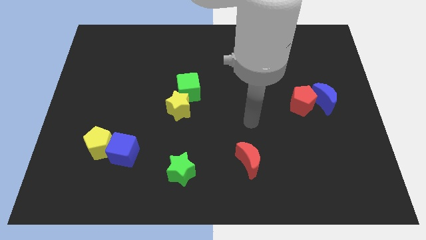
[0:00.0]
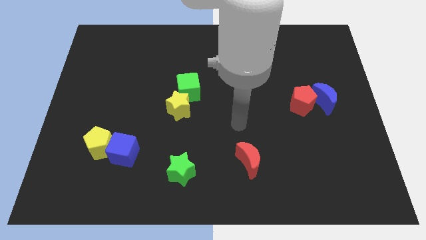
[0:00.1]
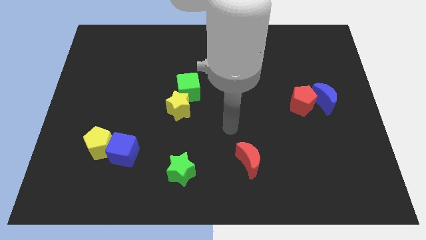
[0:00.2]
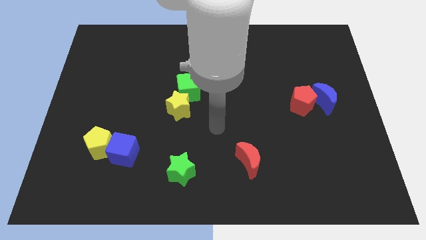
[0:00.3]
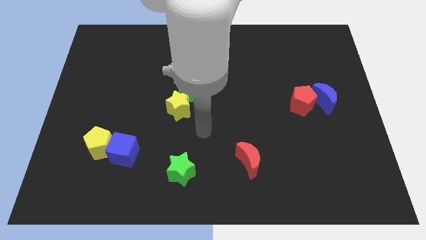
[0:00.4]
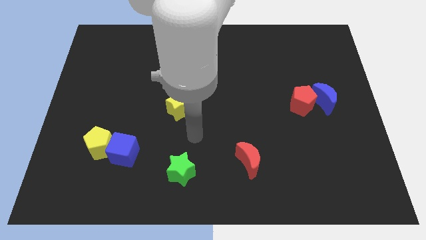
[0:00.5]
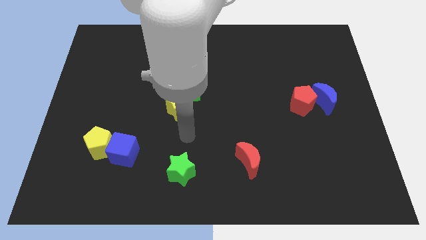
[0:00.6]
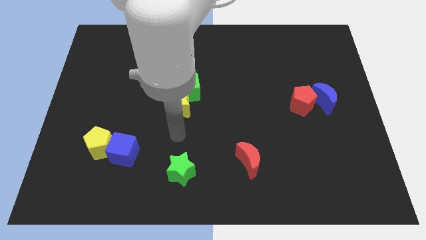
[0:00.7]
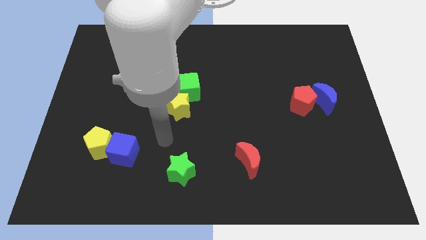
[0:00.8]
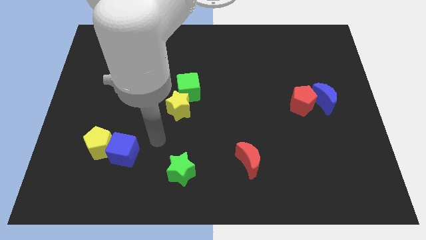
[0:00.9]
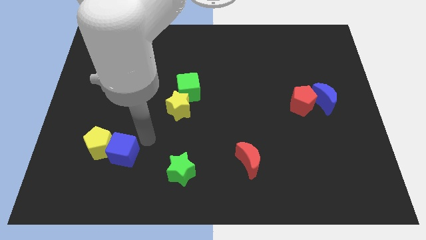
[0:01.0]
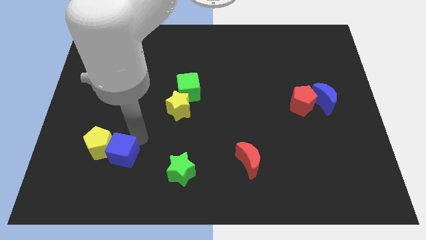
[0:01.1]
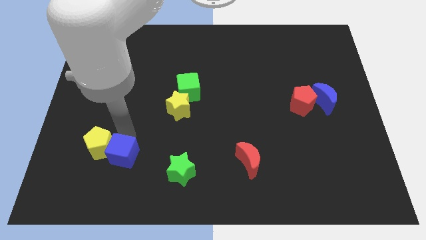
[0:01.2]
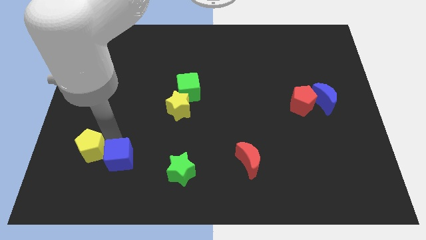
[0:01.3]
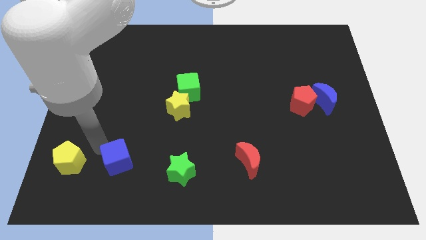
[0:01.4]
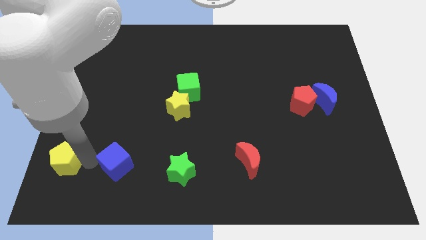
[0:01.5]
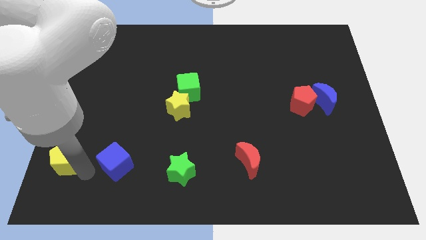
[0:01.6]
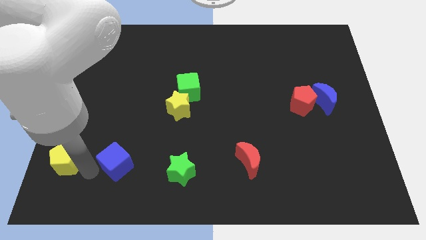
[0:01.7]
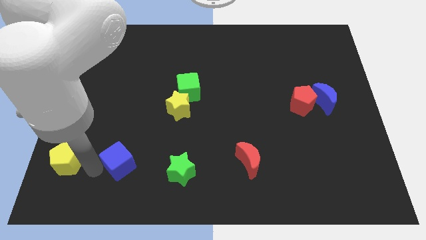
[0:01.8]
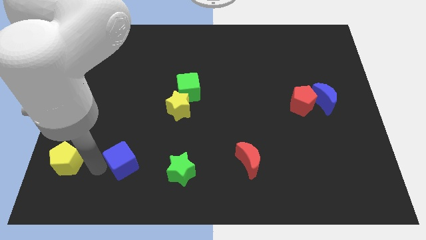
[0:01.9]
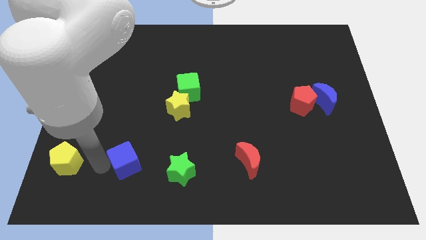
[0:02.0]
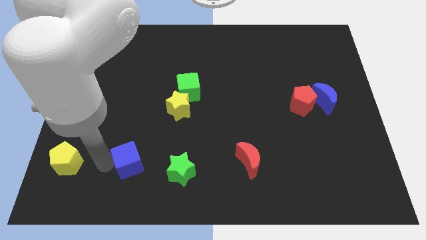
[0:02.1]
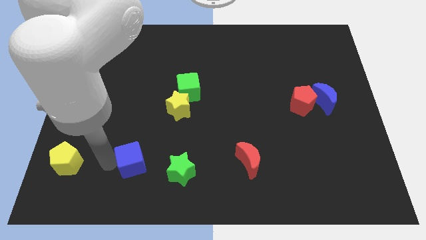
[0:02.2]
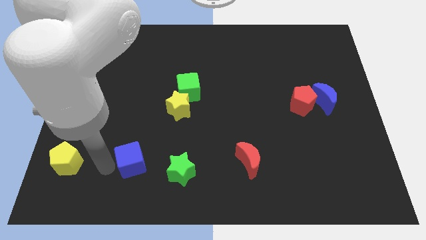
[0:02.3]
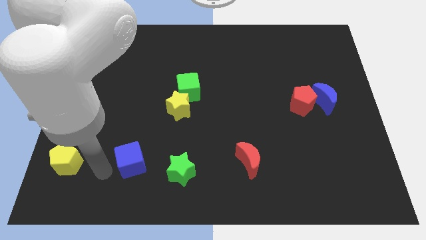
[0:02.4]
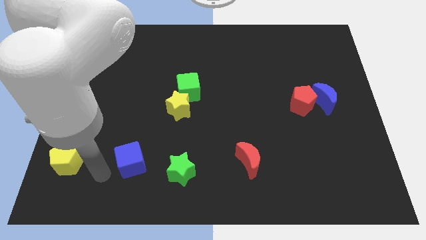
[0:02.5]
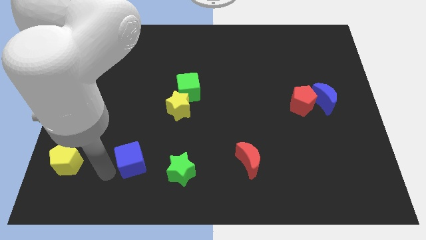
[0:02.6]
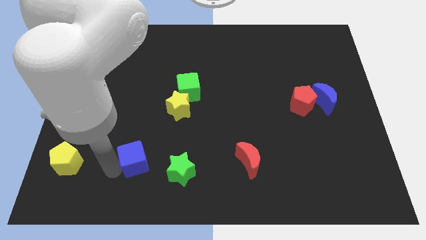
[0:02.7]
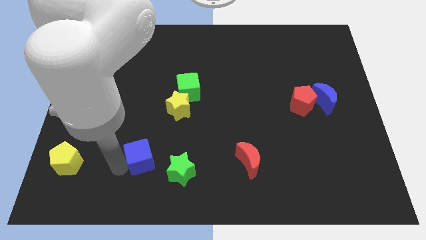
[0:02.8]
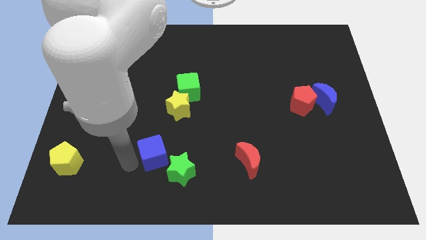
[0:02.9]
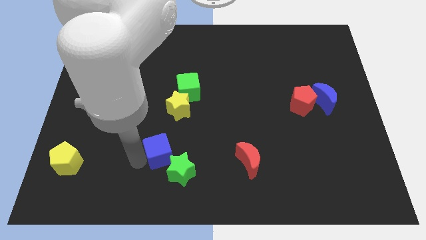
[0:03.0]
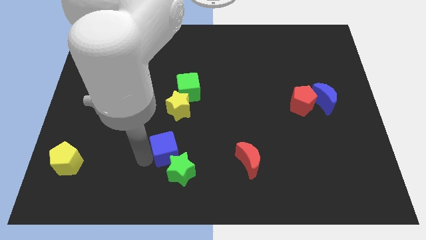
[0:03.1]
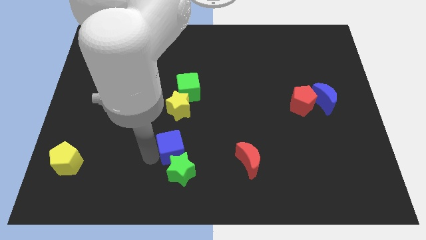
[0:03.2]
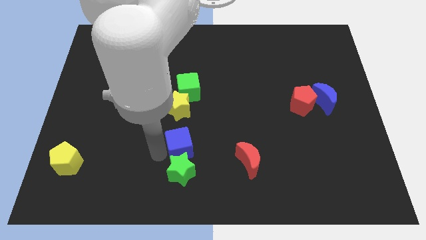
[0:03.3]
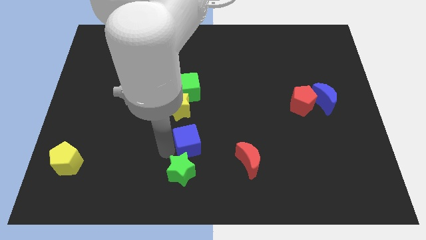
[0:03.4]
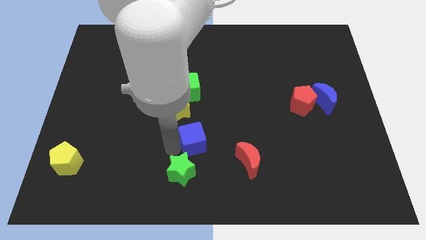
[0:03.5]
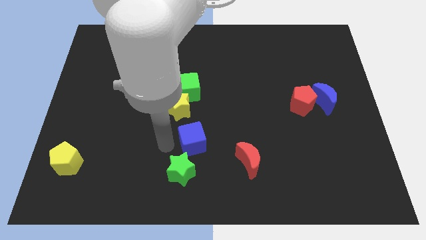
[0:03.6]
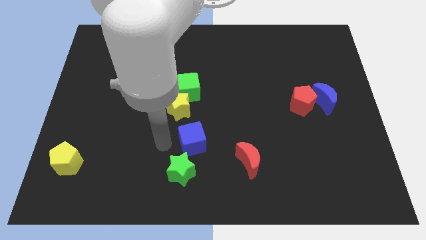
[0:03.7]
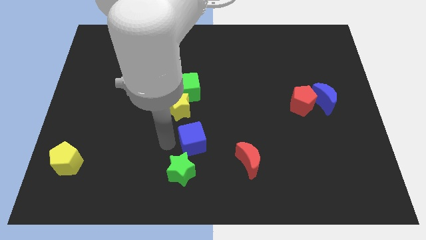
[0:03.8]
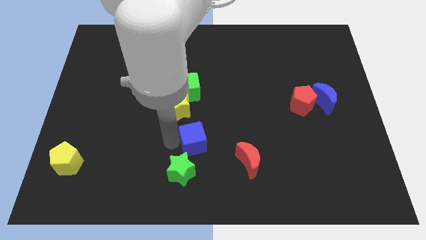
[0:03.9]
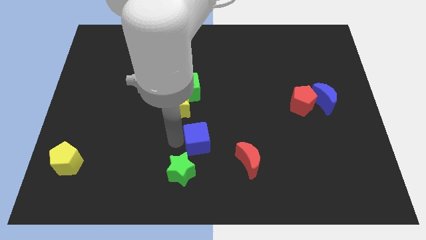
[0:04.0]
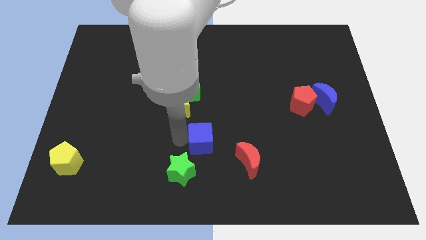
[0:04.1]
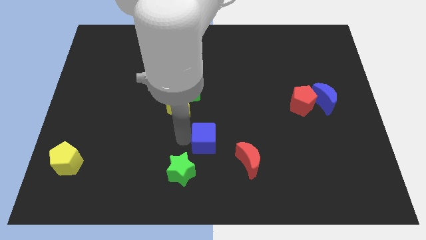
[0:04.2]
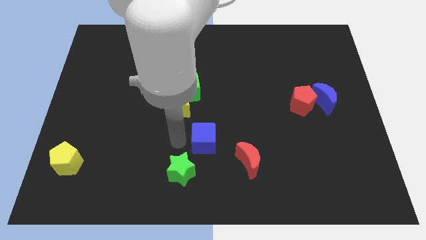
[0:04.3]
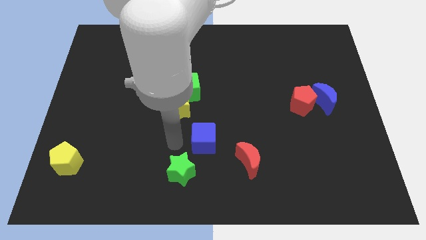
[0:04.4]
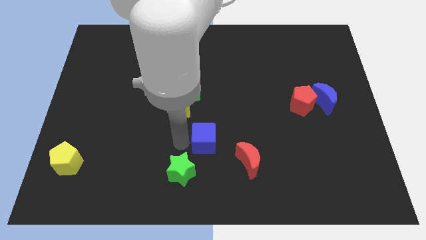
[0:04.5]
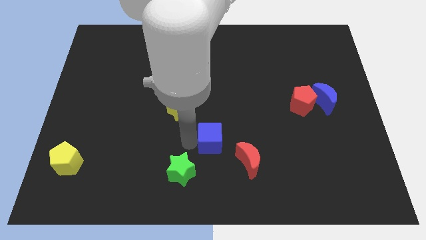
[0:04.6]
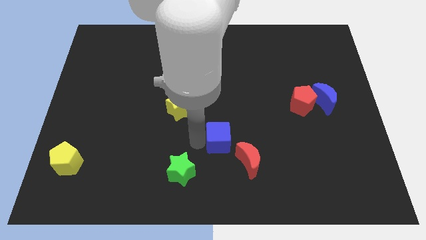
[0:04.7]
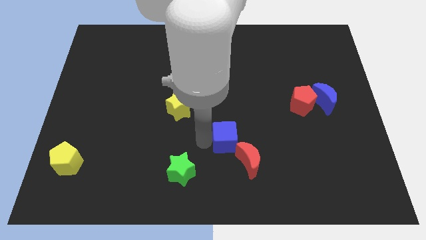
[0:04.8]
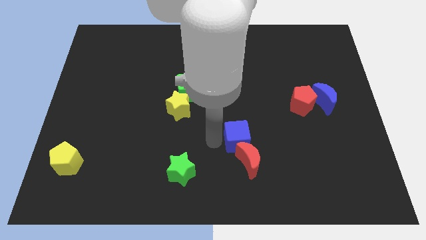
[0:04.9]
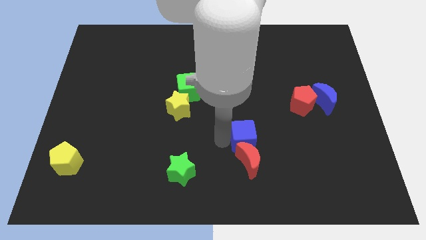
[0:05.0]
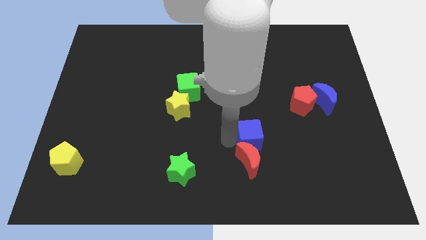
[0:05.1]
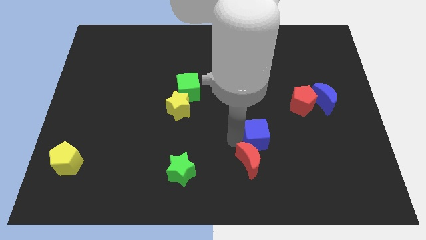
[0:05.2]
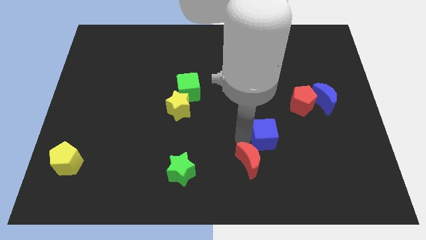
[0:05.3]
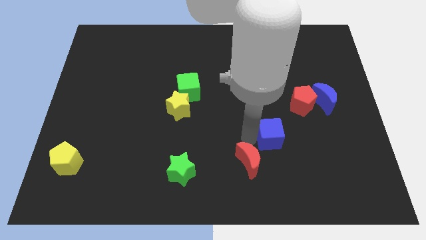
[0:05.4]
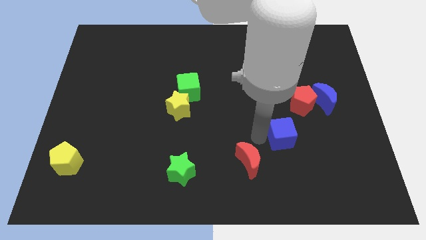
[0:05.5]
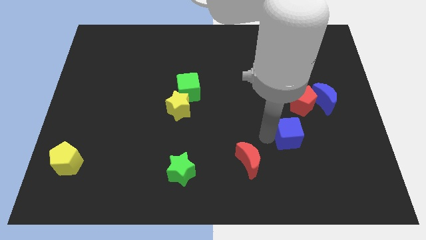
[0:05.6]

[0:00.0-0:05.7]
slide the blue cube to the bottom side of the red pentagon

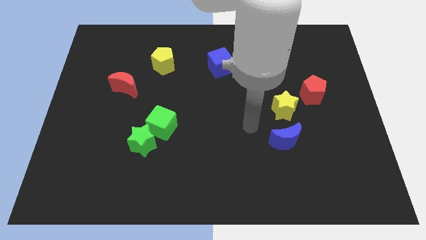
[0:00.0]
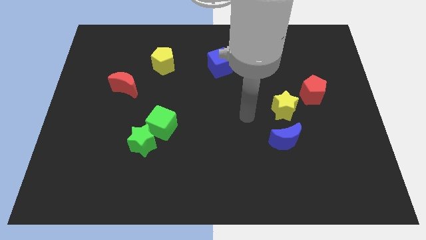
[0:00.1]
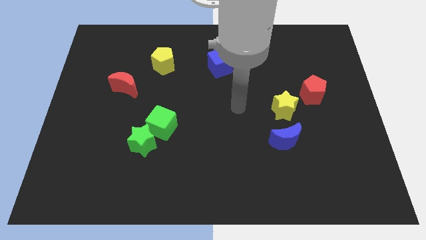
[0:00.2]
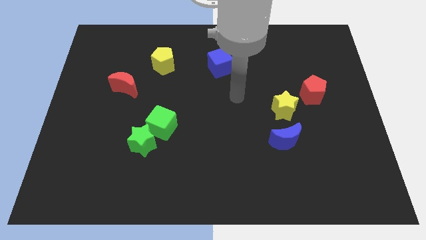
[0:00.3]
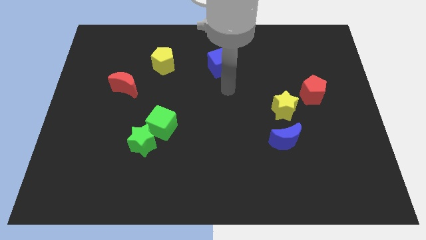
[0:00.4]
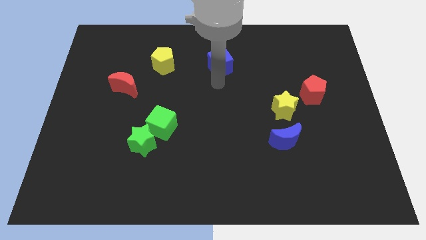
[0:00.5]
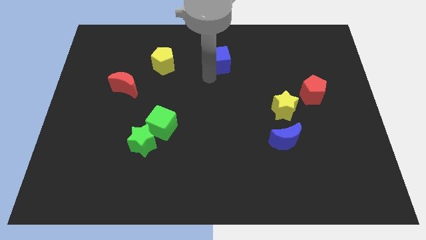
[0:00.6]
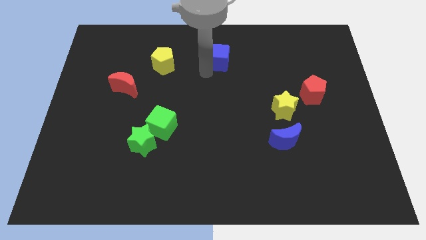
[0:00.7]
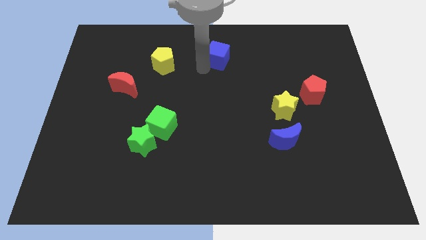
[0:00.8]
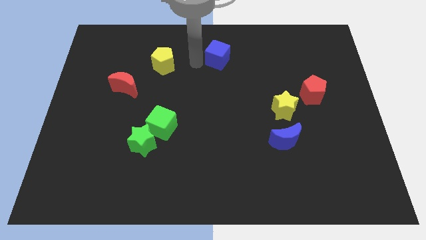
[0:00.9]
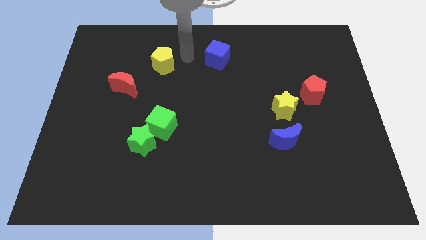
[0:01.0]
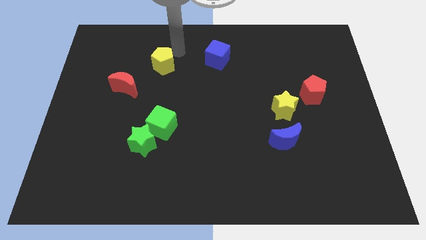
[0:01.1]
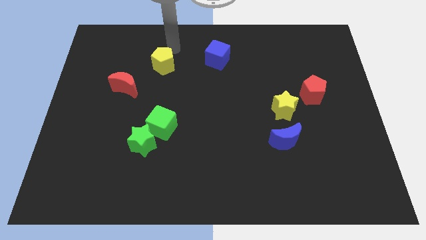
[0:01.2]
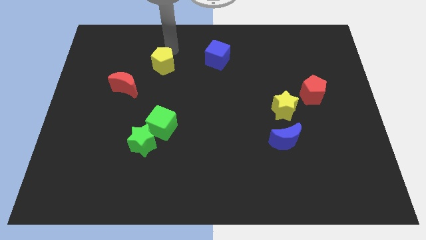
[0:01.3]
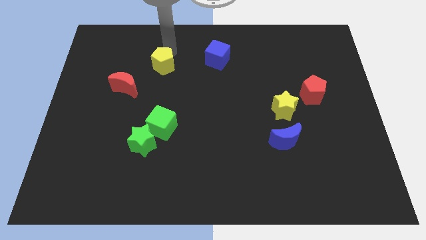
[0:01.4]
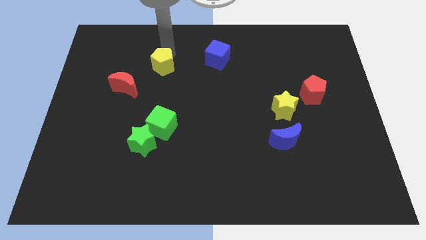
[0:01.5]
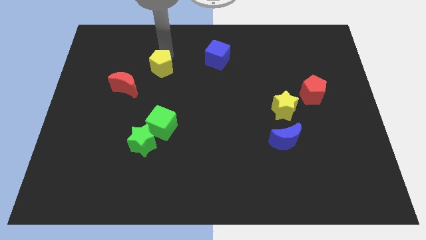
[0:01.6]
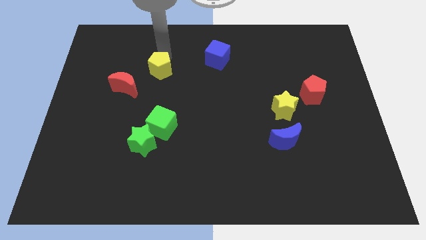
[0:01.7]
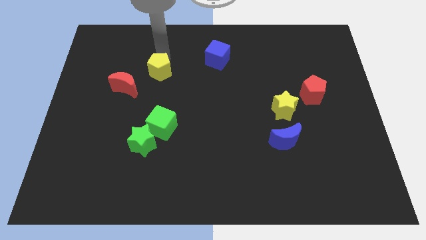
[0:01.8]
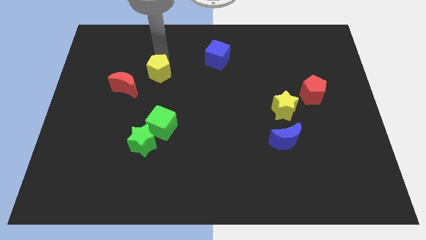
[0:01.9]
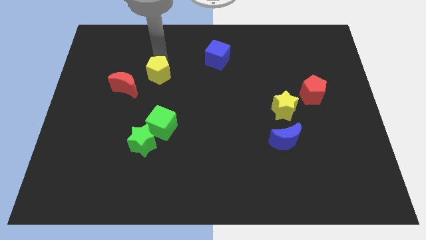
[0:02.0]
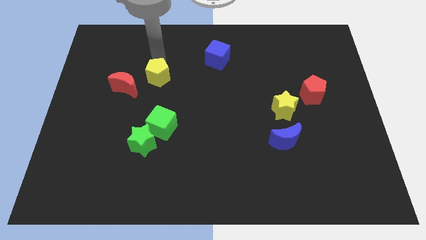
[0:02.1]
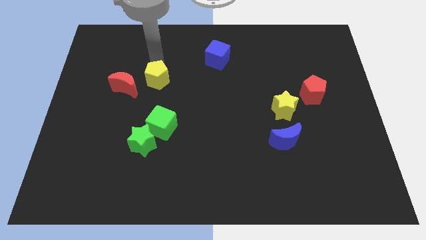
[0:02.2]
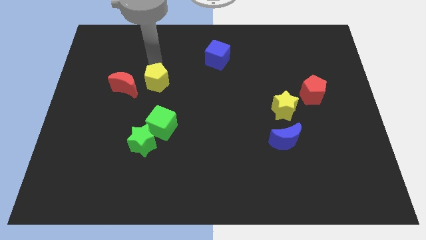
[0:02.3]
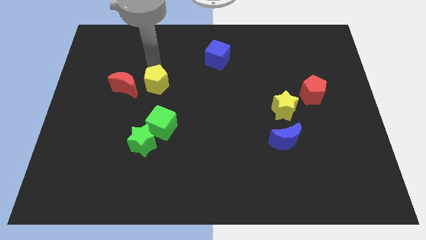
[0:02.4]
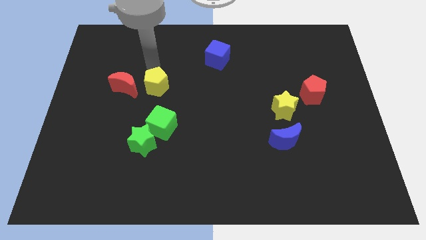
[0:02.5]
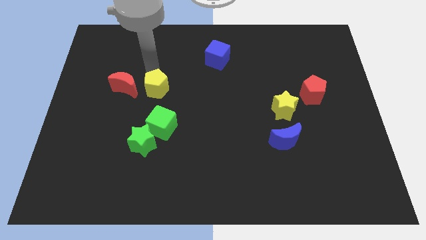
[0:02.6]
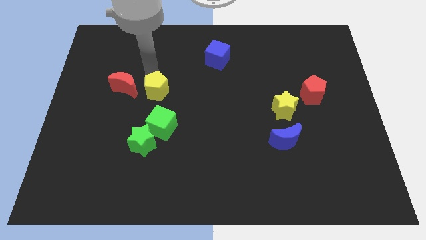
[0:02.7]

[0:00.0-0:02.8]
move the yellow pentagon diagonally down and to the right of the red moon
